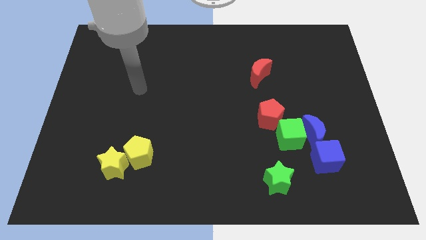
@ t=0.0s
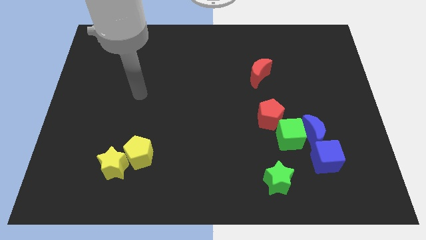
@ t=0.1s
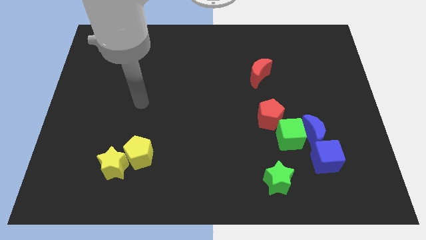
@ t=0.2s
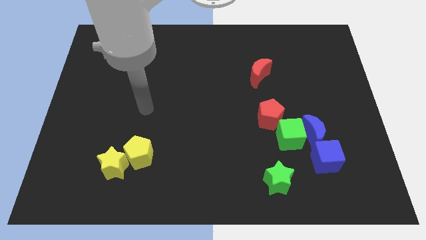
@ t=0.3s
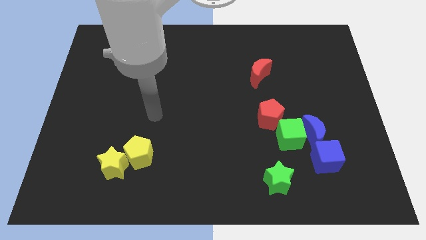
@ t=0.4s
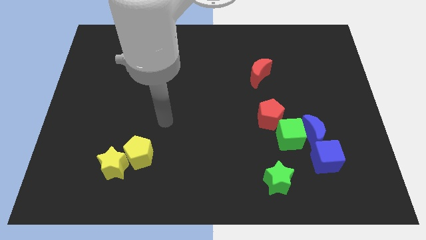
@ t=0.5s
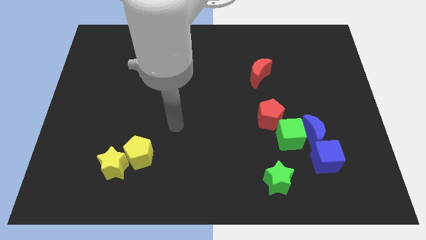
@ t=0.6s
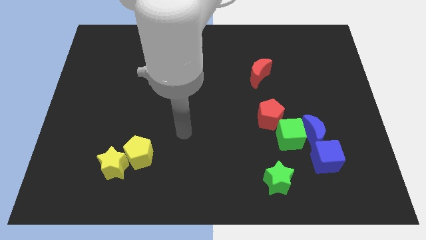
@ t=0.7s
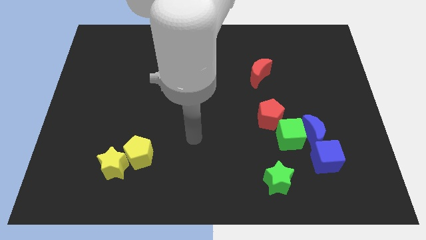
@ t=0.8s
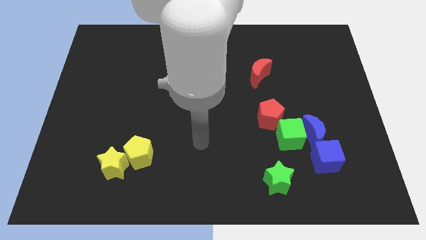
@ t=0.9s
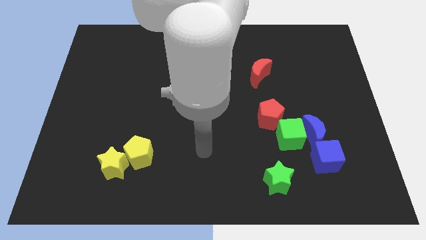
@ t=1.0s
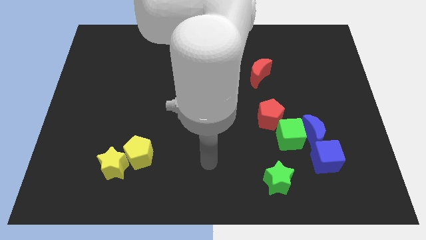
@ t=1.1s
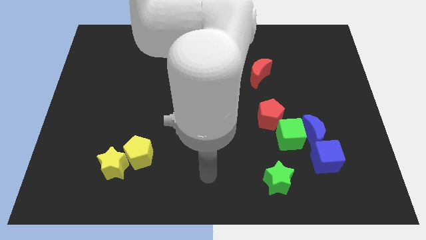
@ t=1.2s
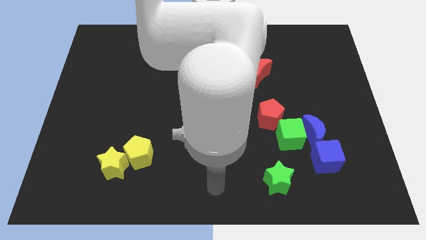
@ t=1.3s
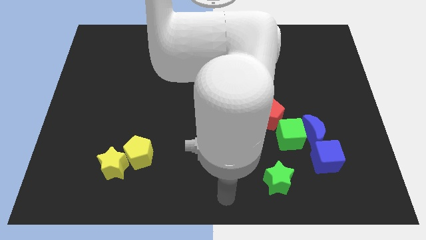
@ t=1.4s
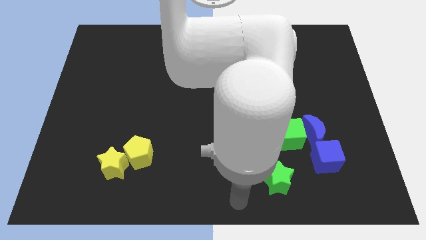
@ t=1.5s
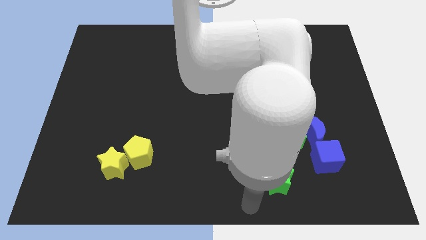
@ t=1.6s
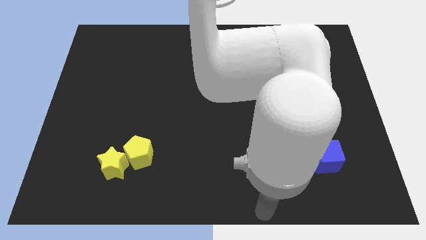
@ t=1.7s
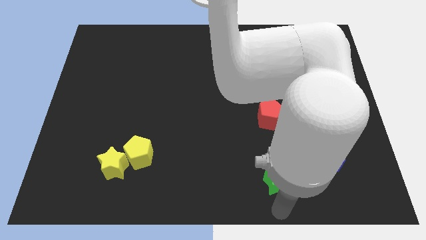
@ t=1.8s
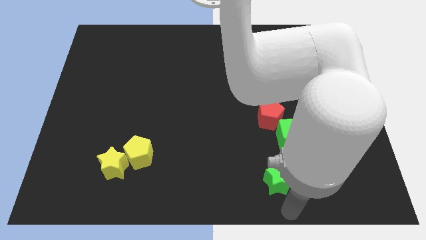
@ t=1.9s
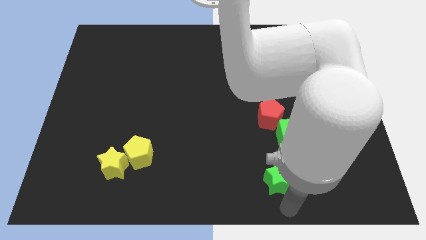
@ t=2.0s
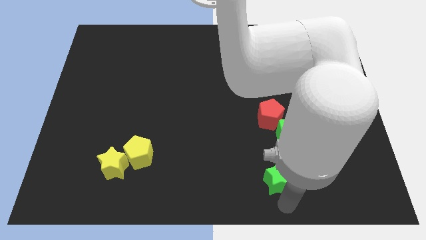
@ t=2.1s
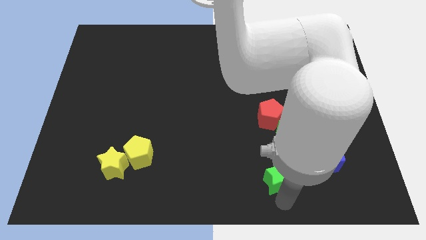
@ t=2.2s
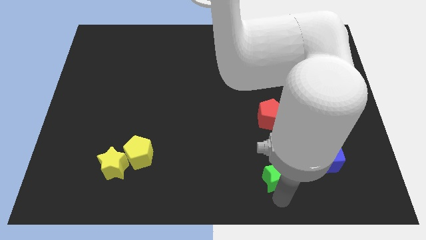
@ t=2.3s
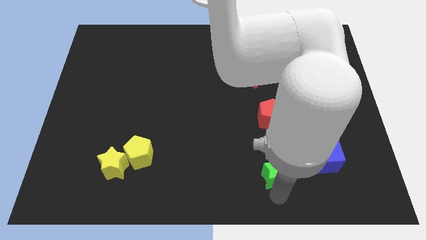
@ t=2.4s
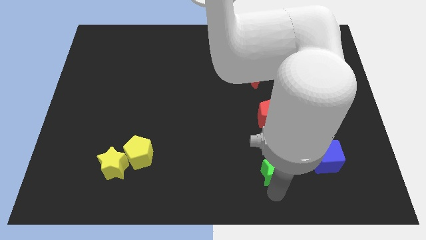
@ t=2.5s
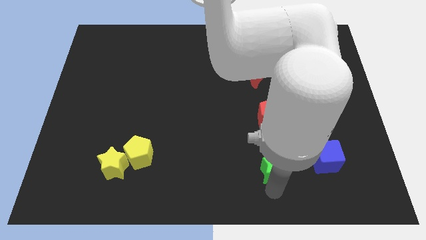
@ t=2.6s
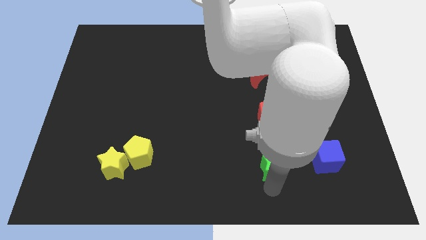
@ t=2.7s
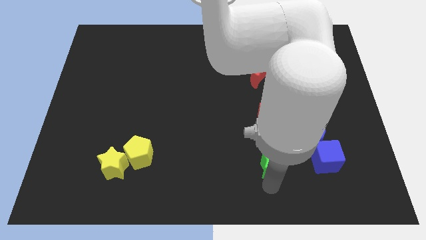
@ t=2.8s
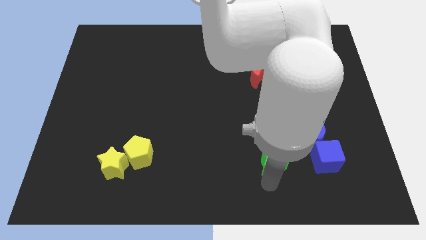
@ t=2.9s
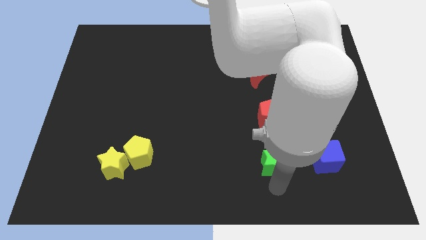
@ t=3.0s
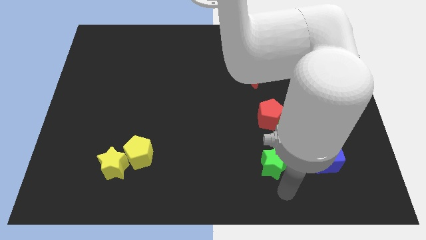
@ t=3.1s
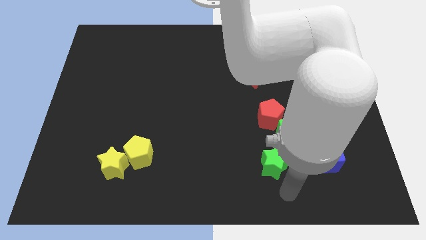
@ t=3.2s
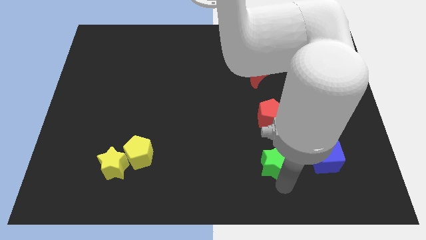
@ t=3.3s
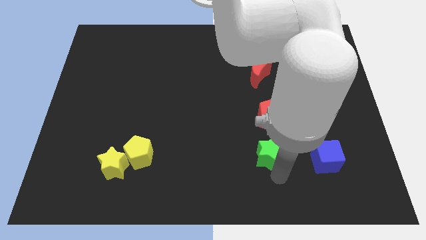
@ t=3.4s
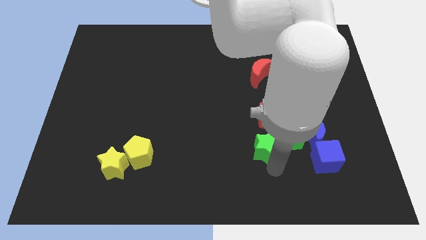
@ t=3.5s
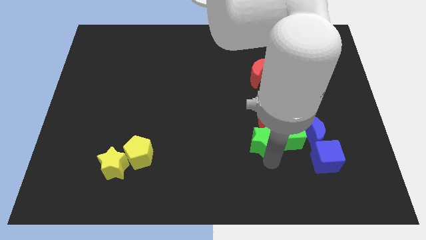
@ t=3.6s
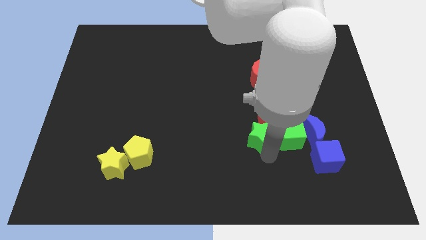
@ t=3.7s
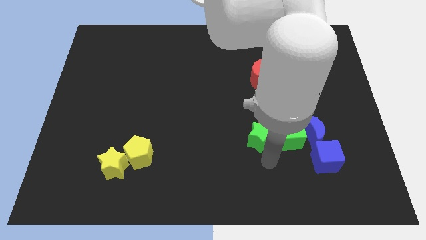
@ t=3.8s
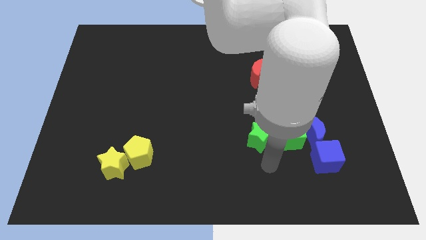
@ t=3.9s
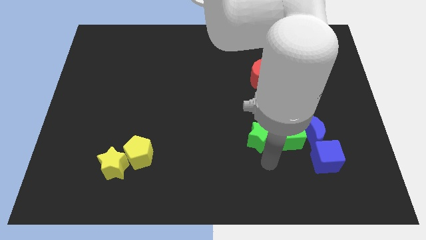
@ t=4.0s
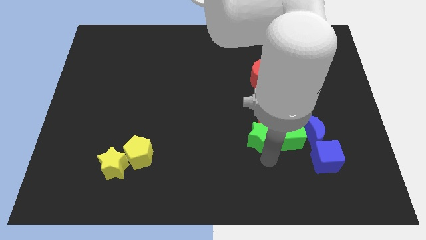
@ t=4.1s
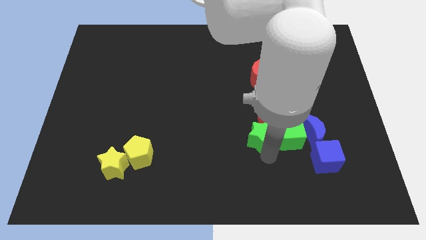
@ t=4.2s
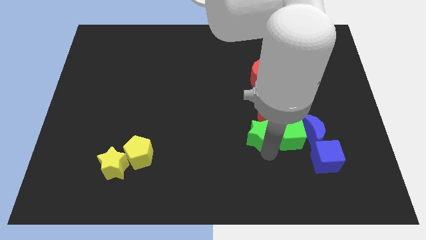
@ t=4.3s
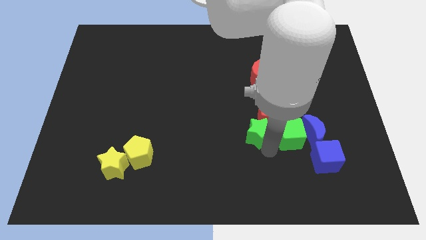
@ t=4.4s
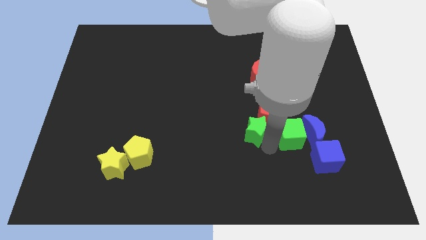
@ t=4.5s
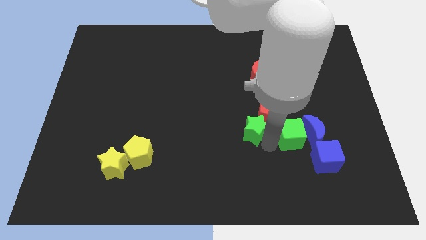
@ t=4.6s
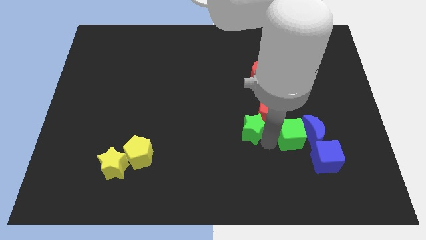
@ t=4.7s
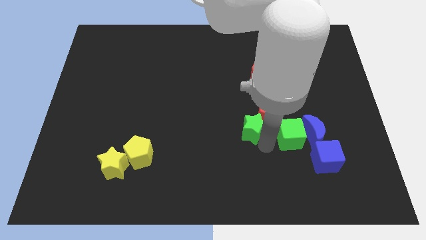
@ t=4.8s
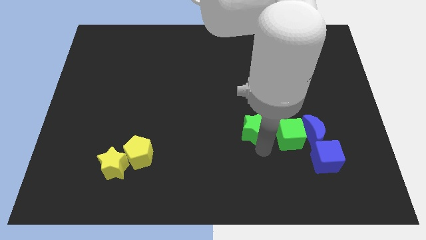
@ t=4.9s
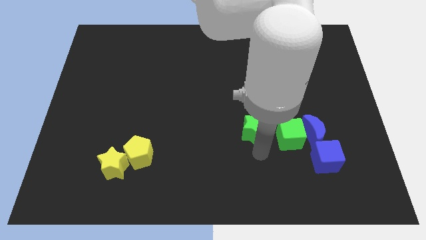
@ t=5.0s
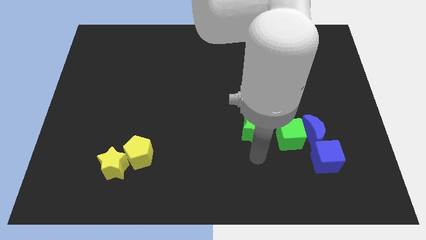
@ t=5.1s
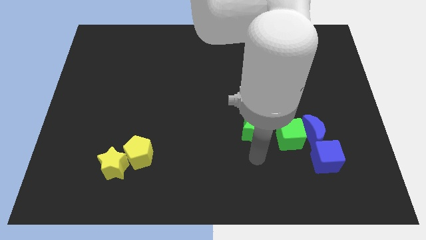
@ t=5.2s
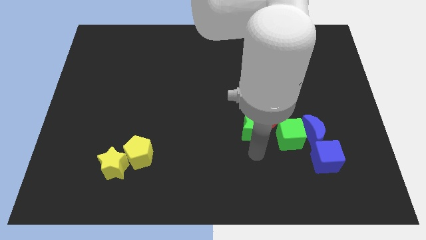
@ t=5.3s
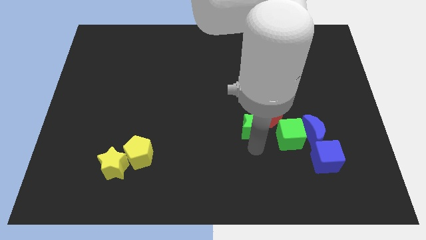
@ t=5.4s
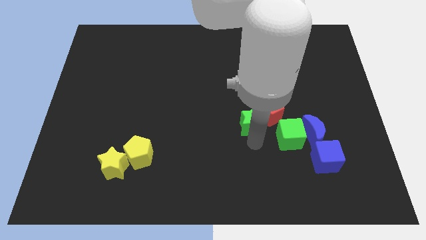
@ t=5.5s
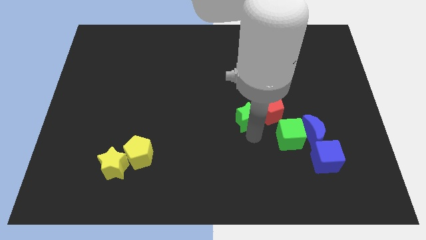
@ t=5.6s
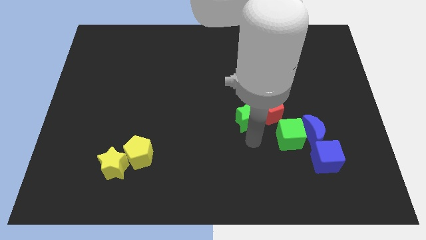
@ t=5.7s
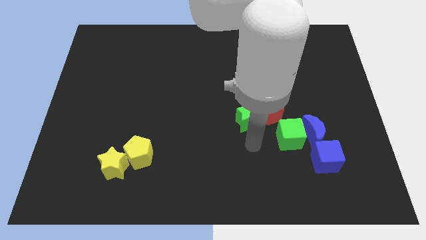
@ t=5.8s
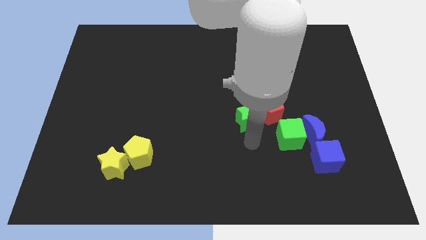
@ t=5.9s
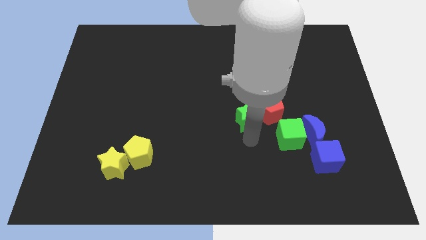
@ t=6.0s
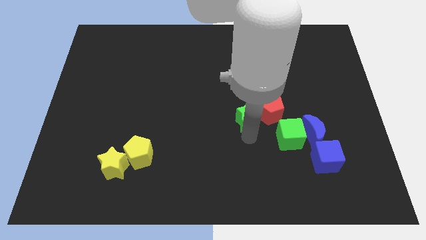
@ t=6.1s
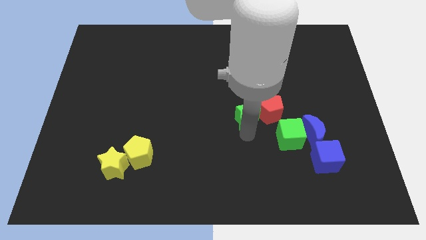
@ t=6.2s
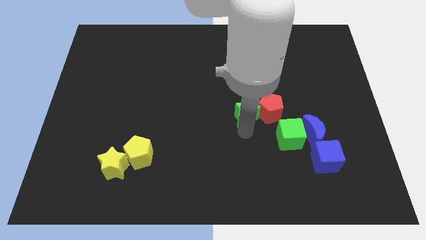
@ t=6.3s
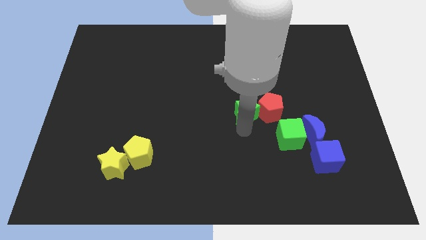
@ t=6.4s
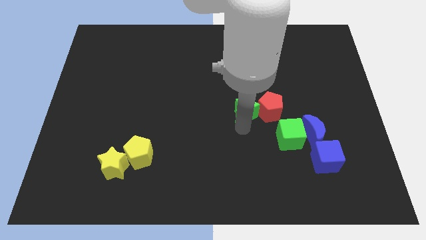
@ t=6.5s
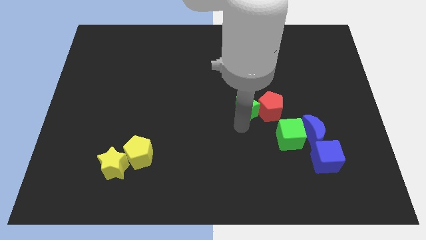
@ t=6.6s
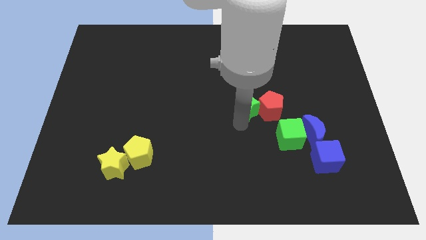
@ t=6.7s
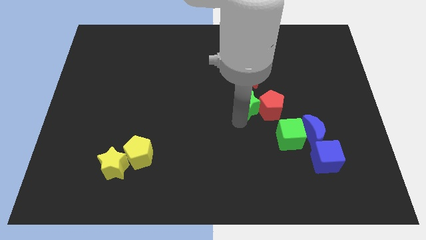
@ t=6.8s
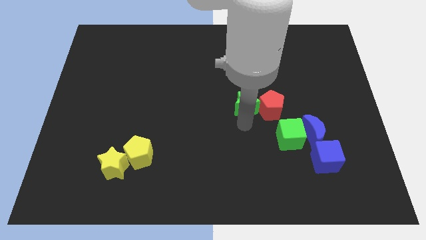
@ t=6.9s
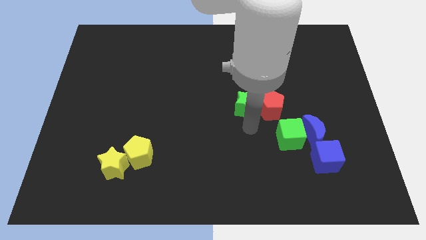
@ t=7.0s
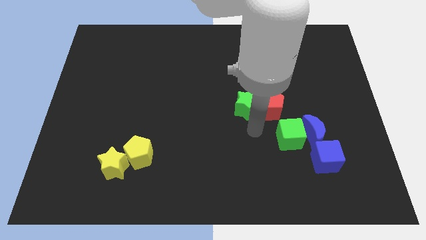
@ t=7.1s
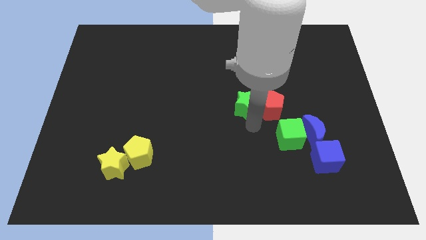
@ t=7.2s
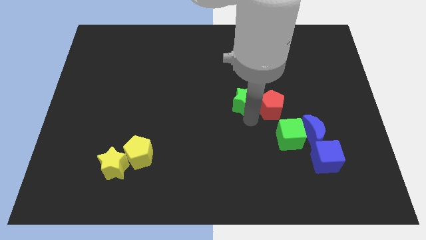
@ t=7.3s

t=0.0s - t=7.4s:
move the green star diagonally down and to the left of the red moon

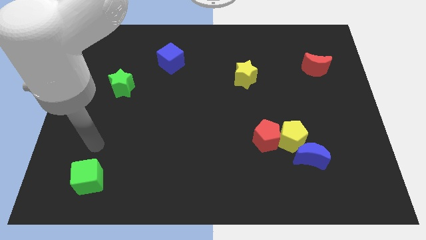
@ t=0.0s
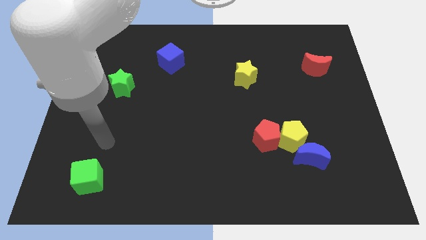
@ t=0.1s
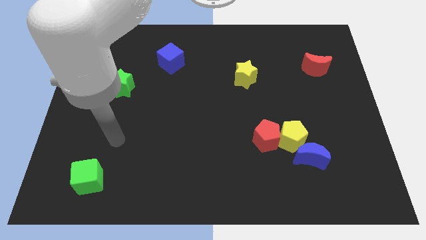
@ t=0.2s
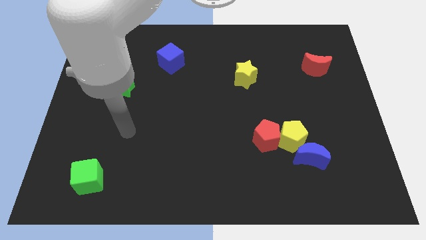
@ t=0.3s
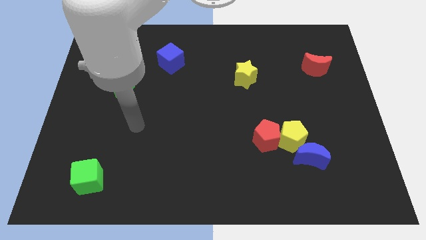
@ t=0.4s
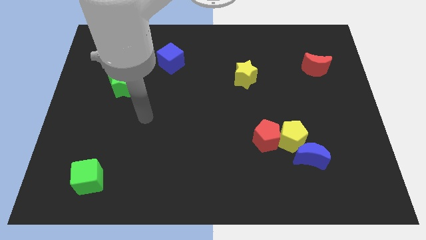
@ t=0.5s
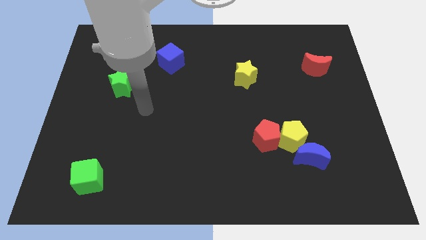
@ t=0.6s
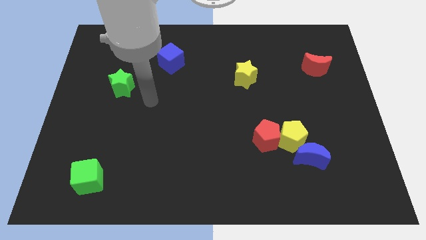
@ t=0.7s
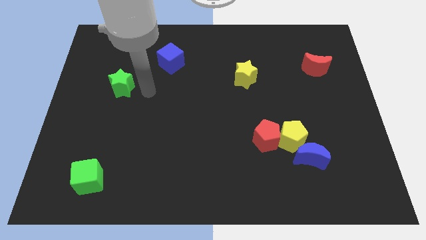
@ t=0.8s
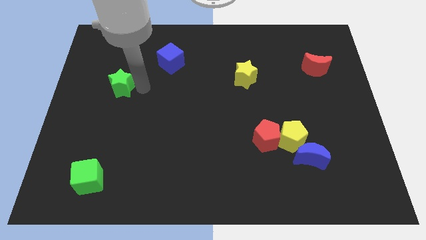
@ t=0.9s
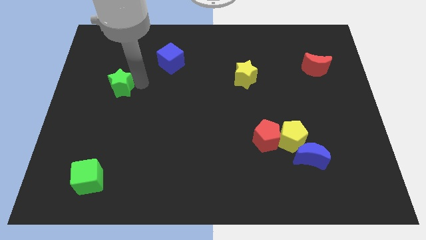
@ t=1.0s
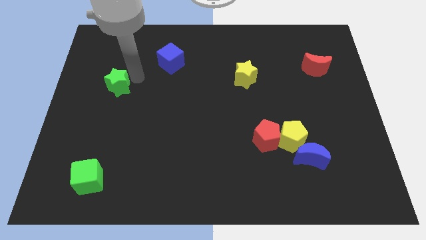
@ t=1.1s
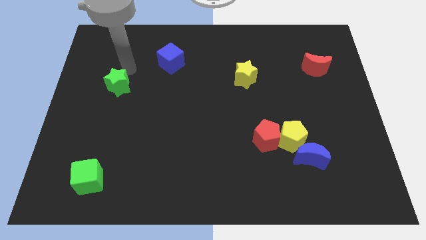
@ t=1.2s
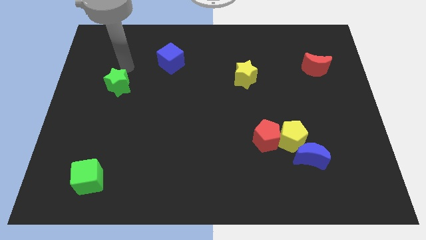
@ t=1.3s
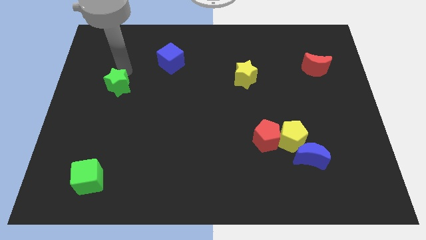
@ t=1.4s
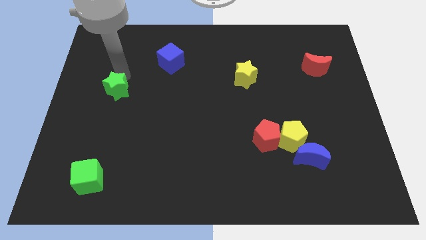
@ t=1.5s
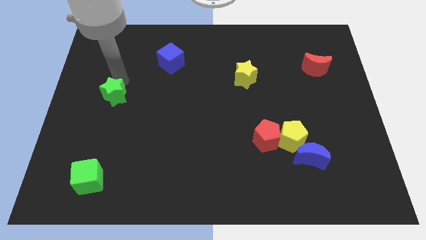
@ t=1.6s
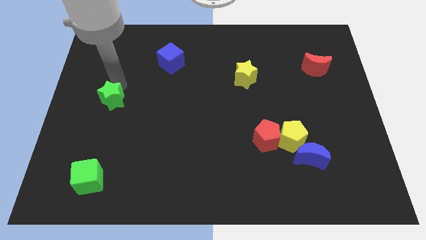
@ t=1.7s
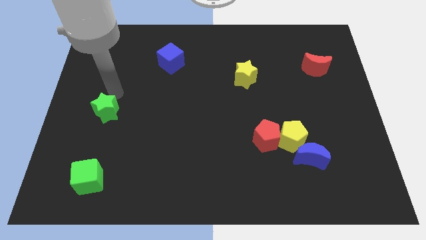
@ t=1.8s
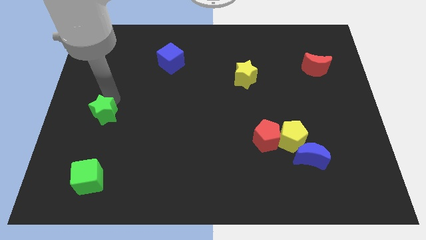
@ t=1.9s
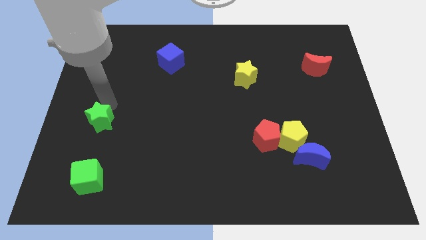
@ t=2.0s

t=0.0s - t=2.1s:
push the green star above the green cube
